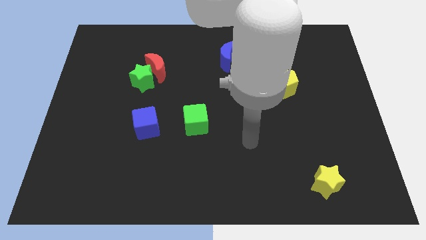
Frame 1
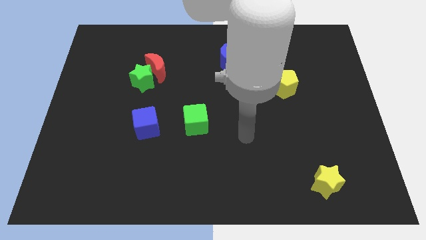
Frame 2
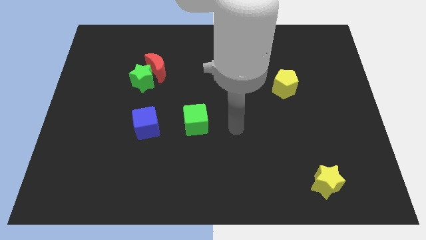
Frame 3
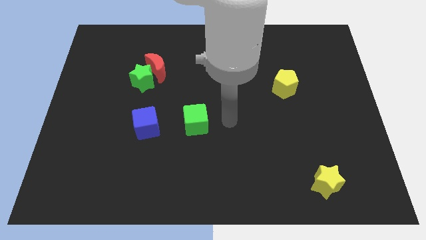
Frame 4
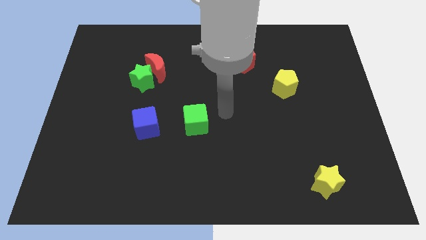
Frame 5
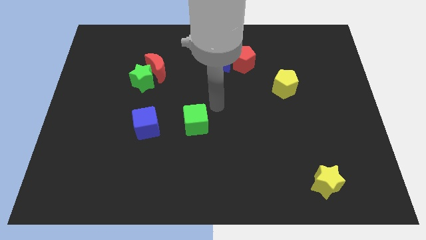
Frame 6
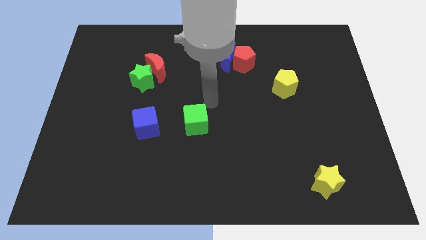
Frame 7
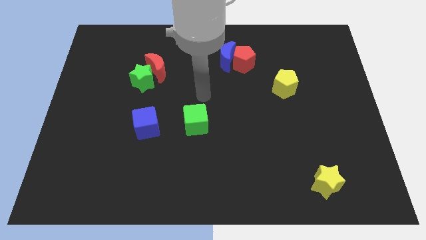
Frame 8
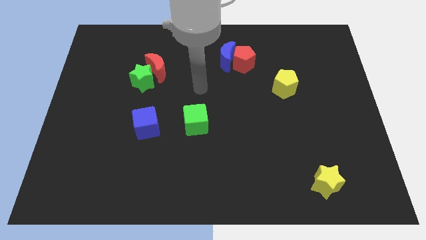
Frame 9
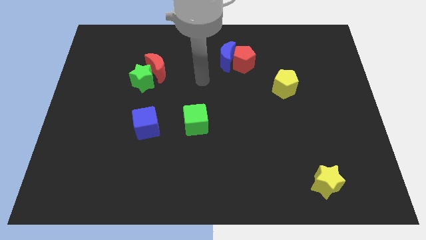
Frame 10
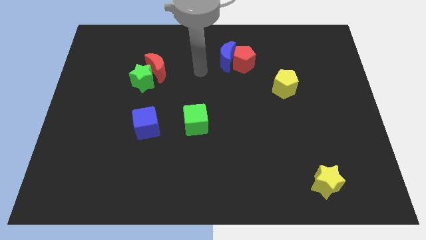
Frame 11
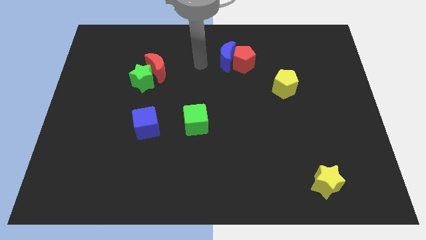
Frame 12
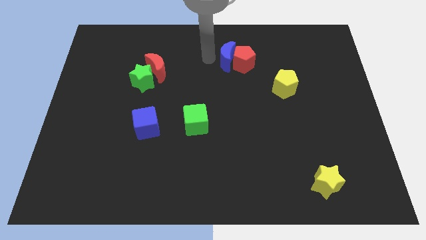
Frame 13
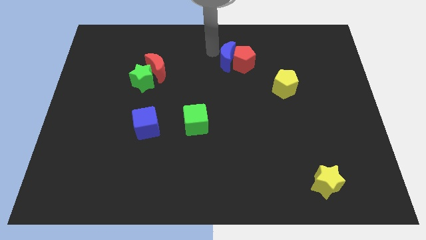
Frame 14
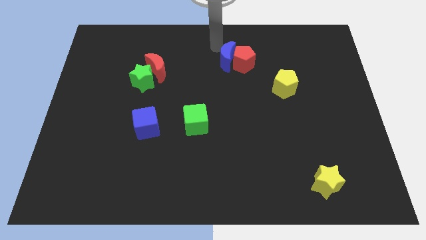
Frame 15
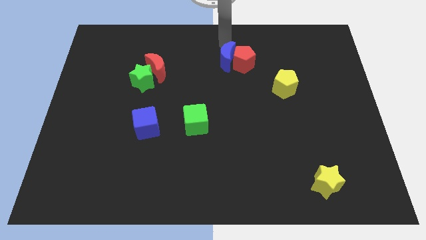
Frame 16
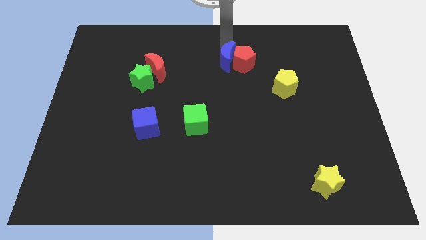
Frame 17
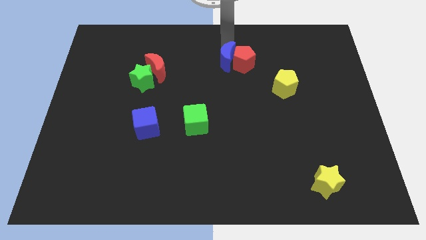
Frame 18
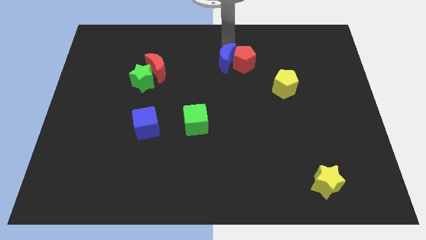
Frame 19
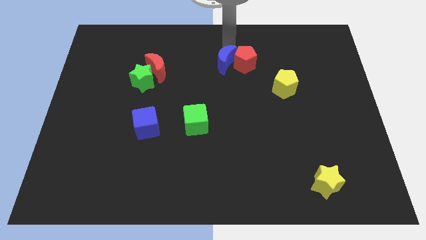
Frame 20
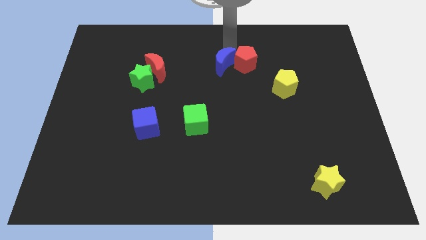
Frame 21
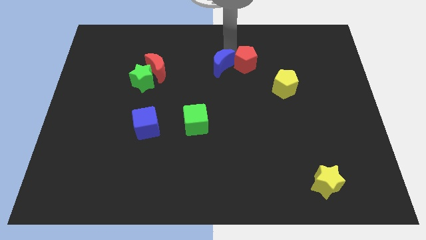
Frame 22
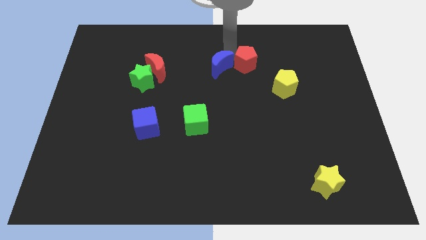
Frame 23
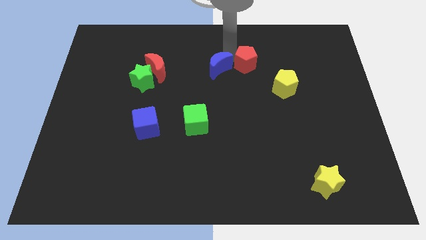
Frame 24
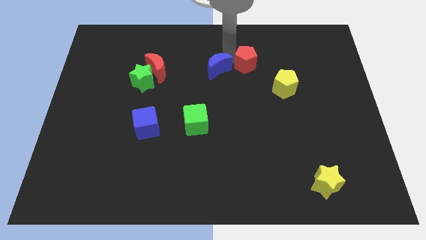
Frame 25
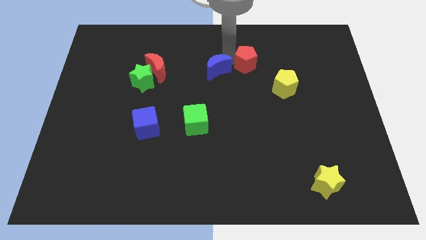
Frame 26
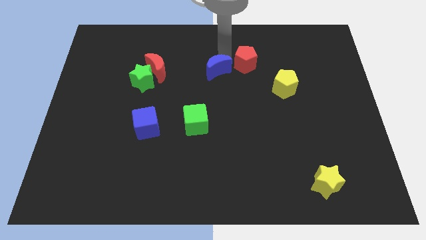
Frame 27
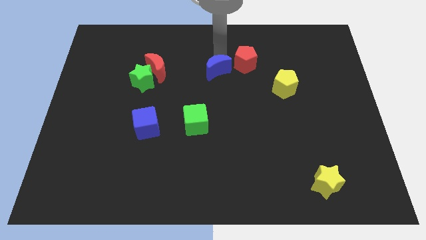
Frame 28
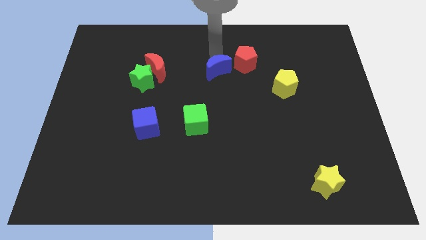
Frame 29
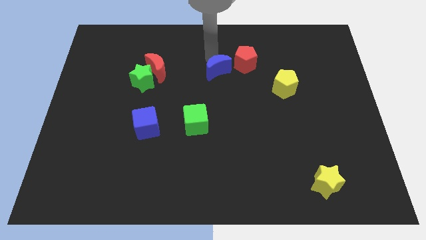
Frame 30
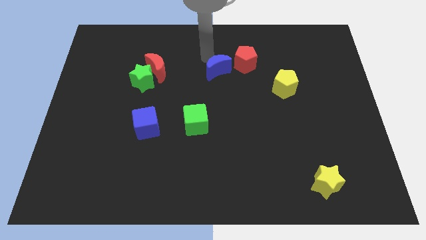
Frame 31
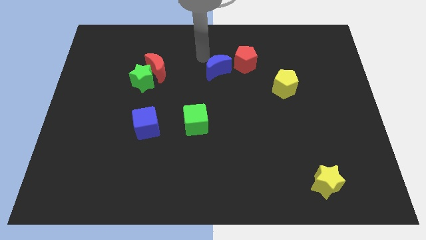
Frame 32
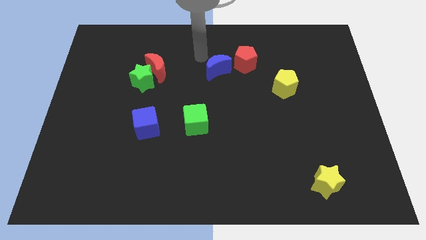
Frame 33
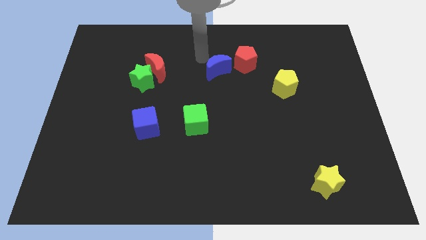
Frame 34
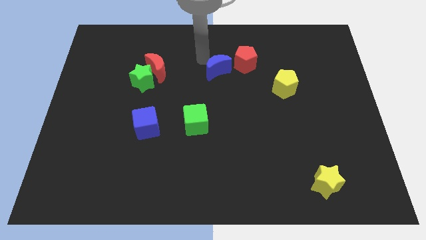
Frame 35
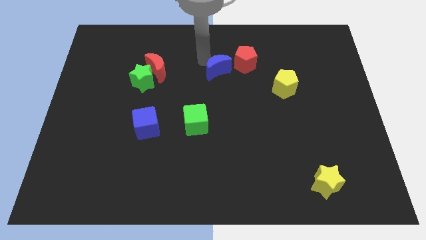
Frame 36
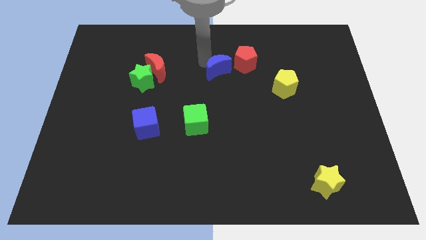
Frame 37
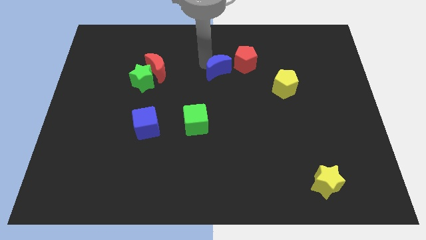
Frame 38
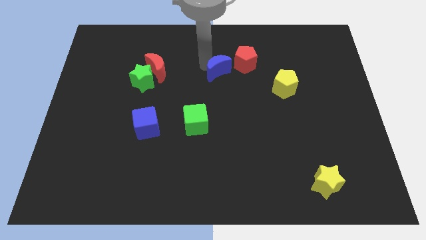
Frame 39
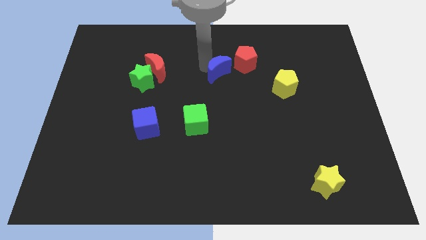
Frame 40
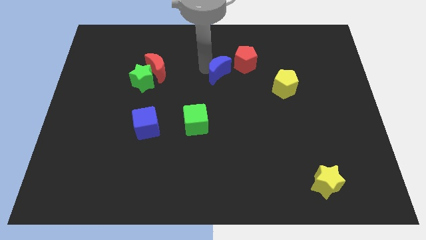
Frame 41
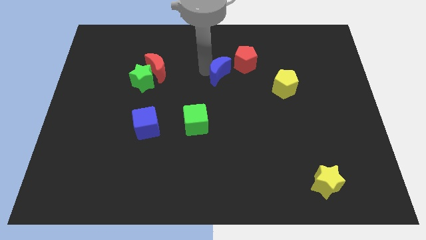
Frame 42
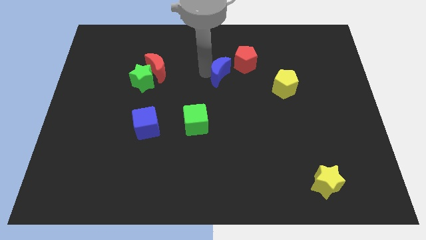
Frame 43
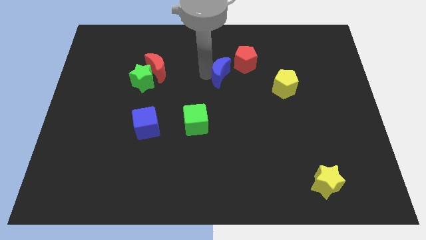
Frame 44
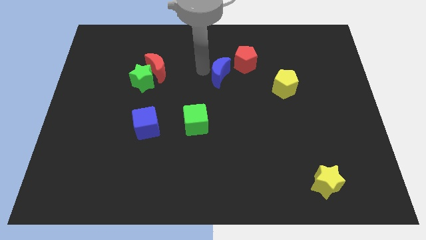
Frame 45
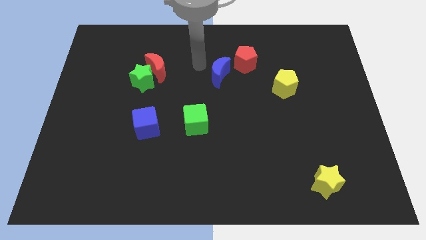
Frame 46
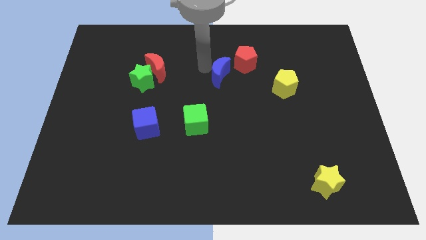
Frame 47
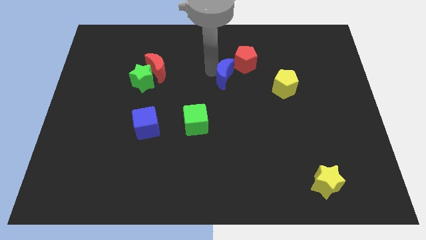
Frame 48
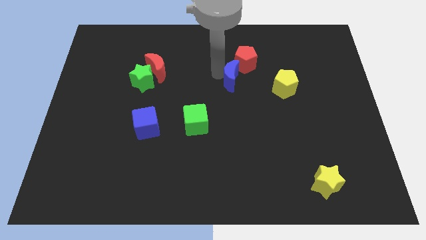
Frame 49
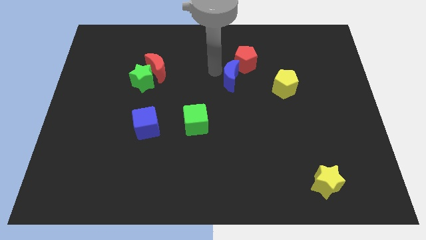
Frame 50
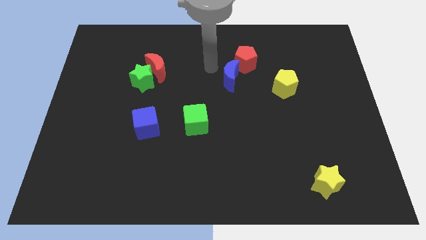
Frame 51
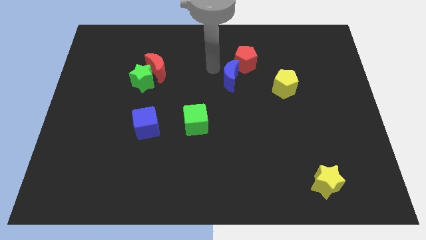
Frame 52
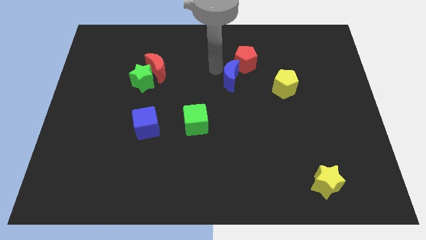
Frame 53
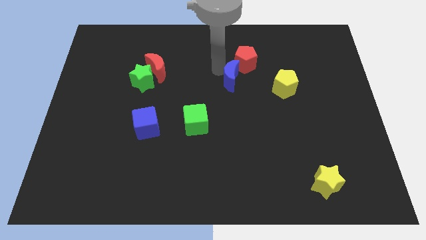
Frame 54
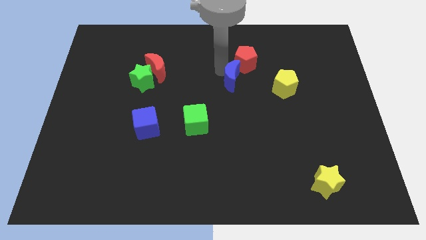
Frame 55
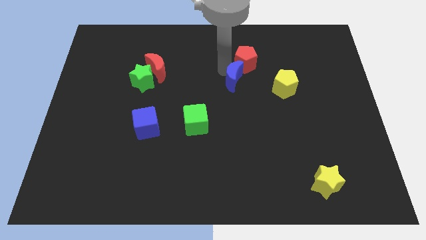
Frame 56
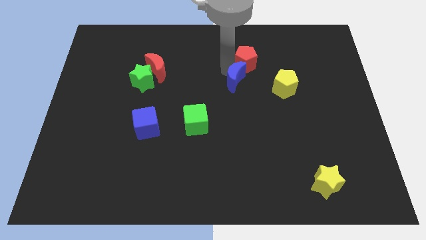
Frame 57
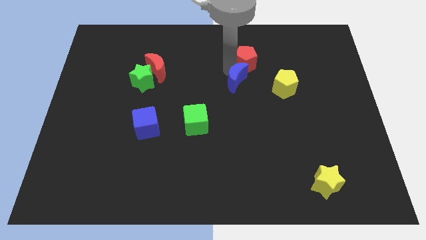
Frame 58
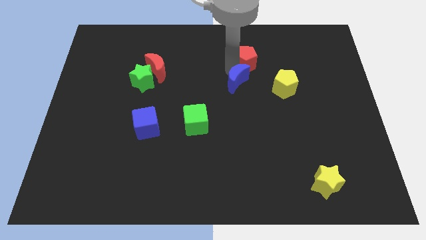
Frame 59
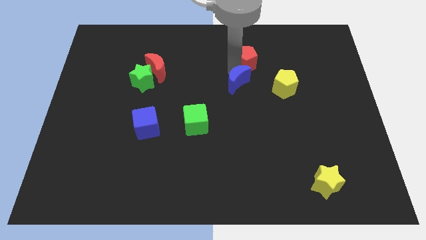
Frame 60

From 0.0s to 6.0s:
move the blue moon down and then to the right somewhat

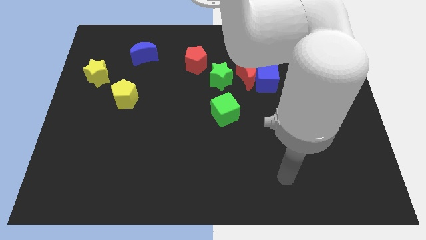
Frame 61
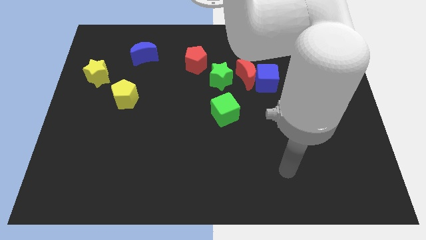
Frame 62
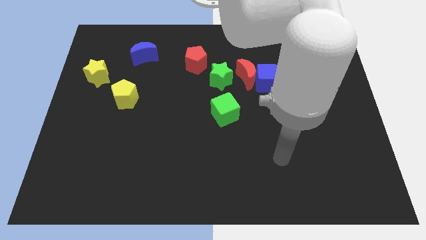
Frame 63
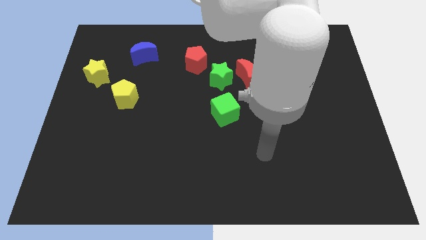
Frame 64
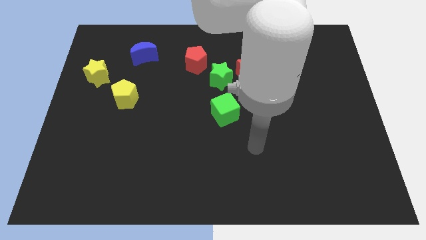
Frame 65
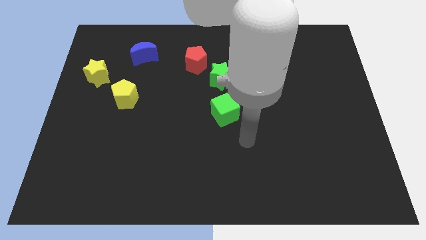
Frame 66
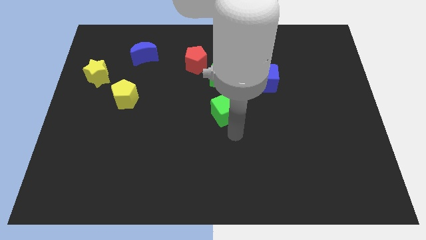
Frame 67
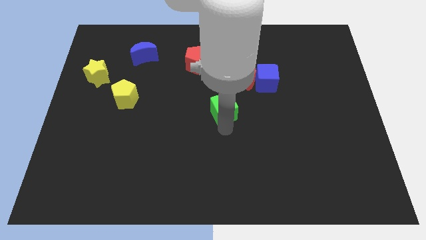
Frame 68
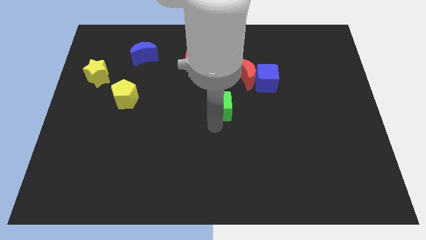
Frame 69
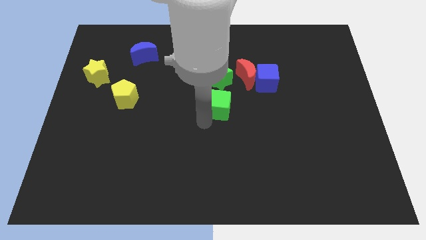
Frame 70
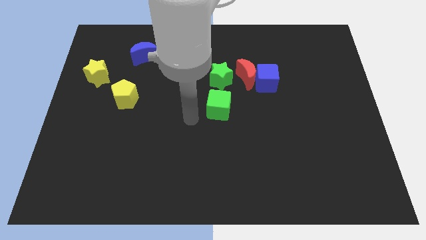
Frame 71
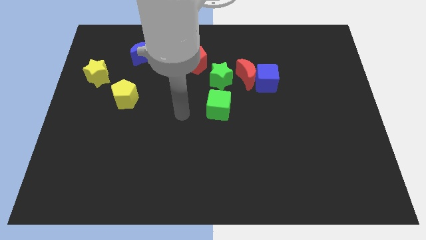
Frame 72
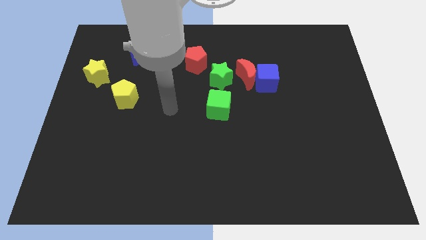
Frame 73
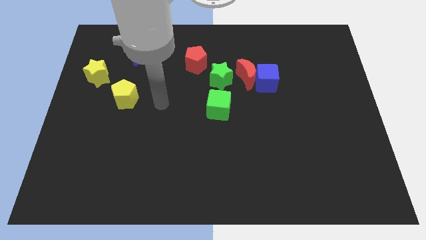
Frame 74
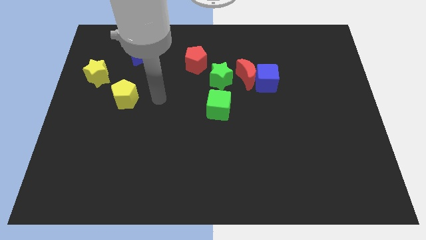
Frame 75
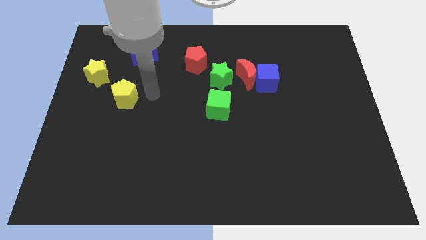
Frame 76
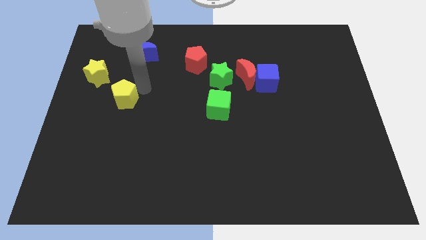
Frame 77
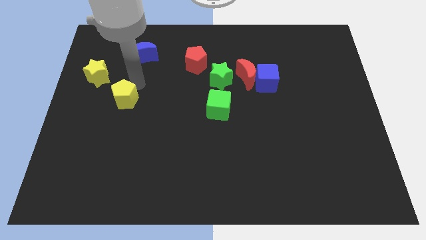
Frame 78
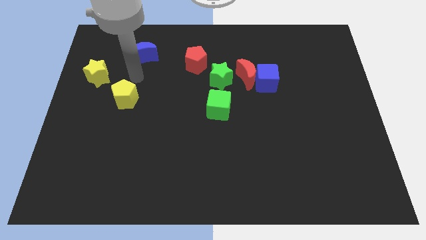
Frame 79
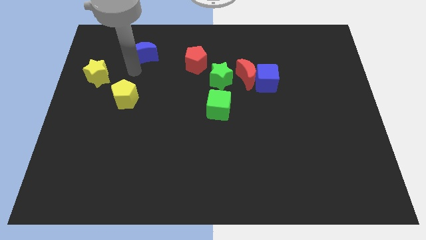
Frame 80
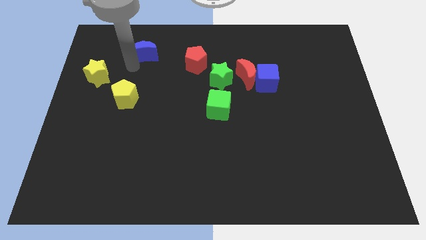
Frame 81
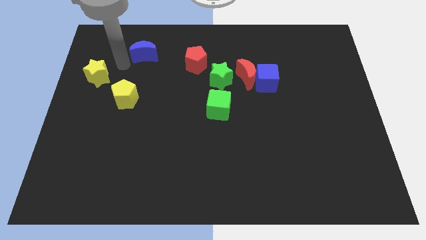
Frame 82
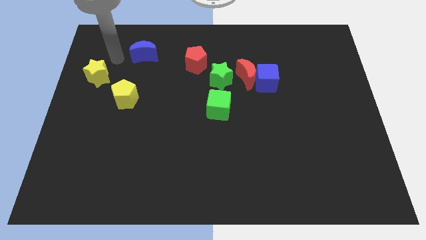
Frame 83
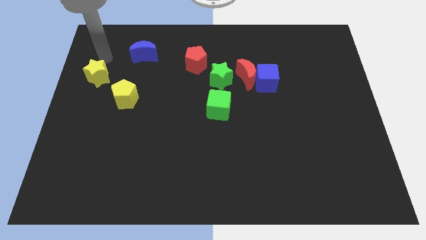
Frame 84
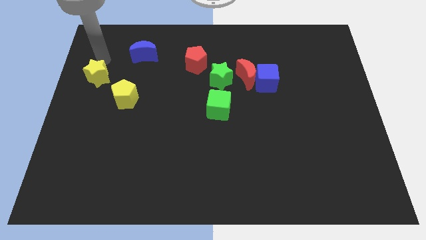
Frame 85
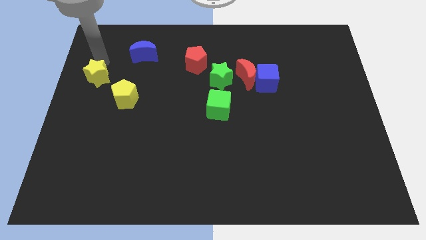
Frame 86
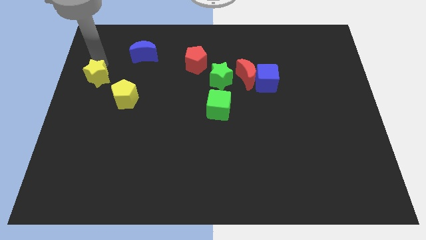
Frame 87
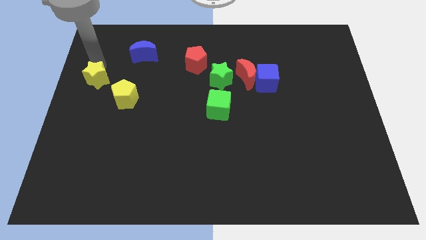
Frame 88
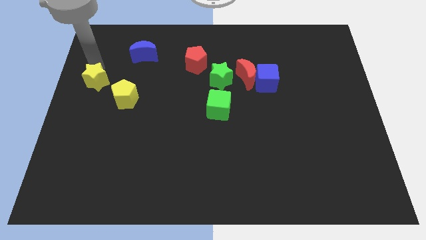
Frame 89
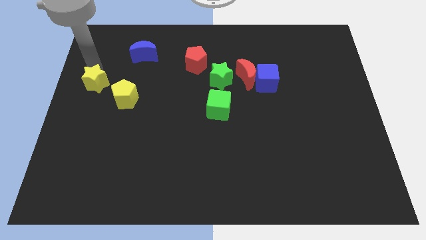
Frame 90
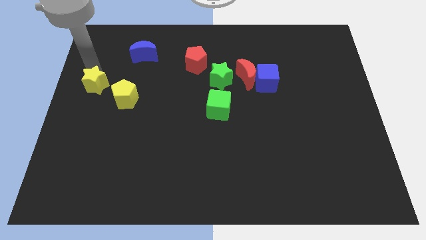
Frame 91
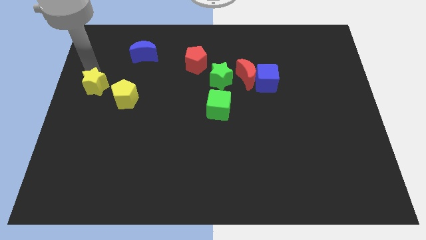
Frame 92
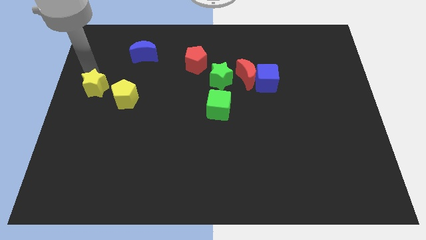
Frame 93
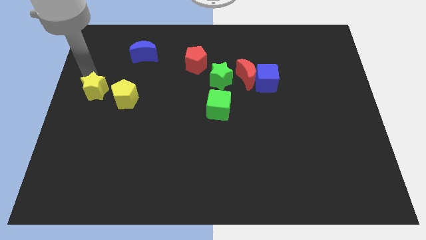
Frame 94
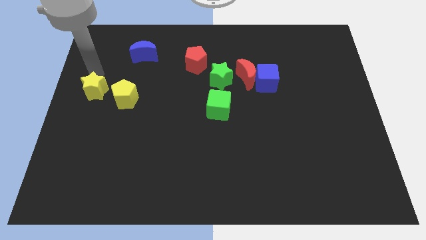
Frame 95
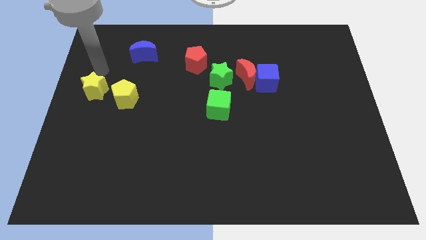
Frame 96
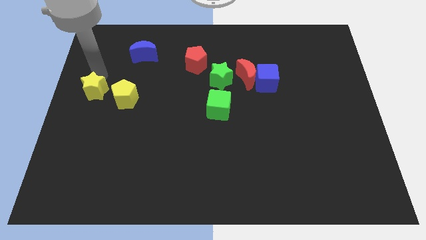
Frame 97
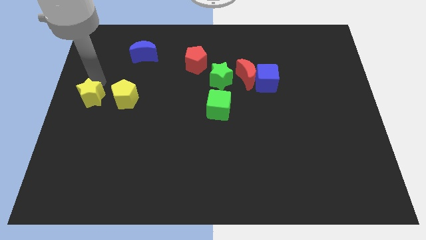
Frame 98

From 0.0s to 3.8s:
slightly slide the yellow star downwards
